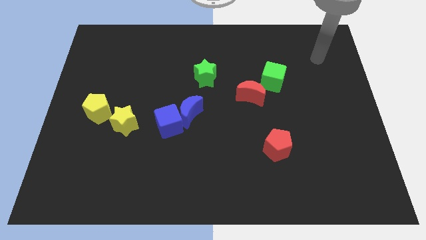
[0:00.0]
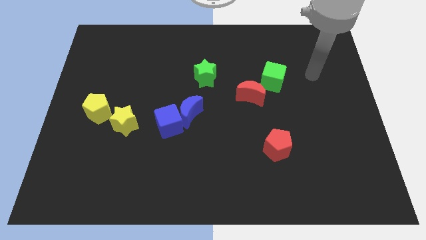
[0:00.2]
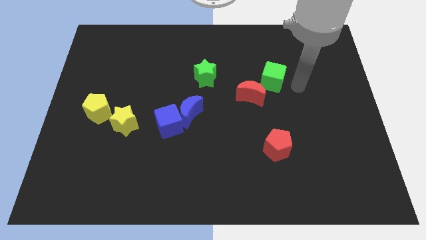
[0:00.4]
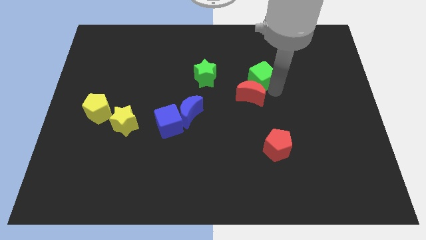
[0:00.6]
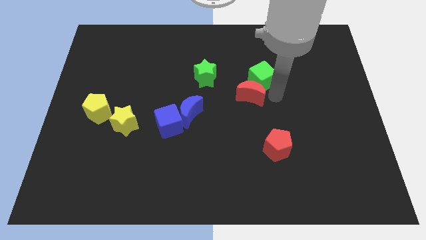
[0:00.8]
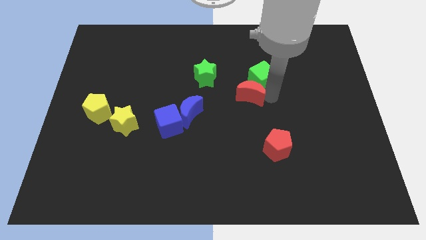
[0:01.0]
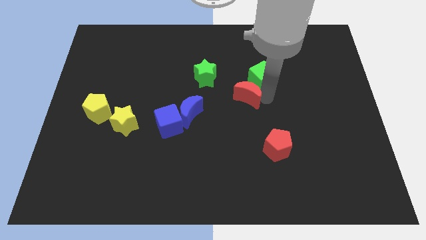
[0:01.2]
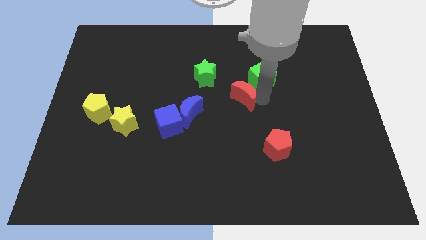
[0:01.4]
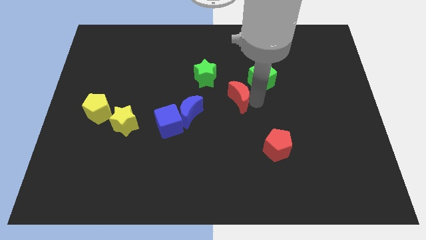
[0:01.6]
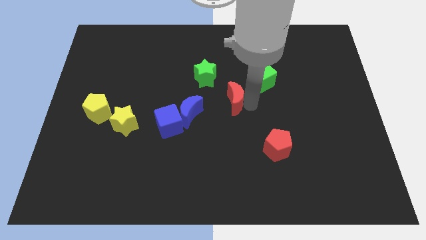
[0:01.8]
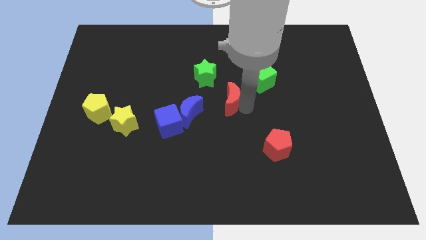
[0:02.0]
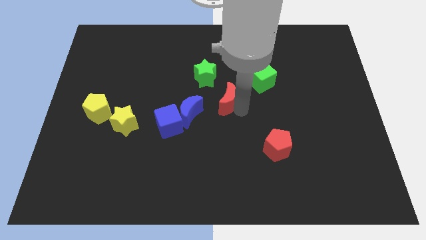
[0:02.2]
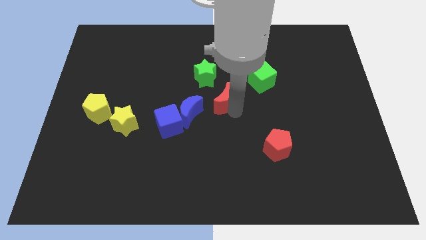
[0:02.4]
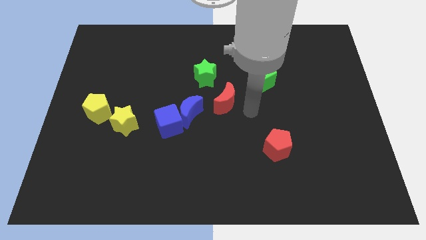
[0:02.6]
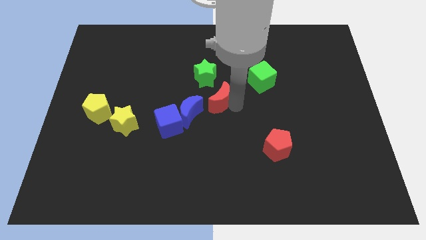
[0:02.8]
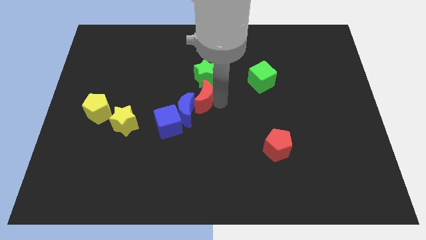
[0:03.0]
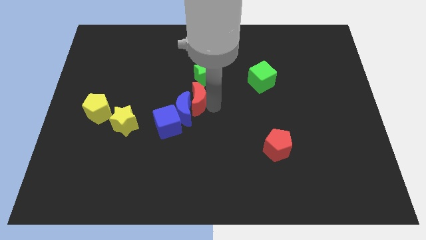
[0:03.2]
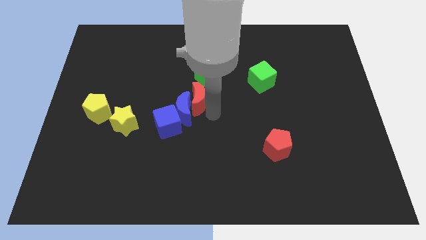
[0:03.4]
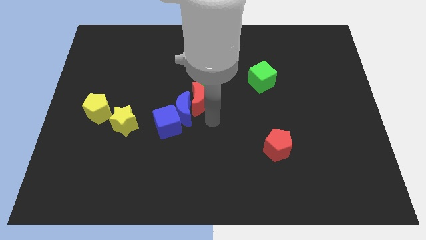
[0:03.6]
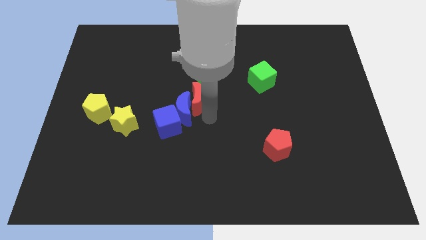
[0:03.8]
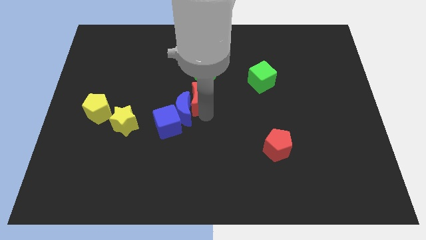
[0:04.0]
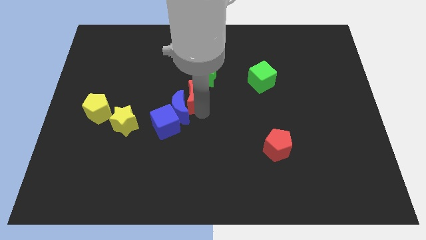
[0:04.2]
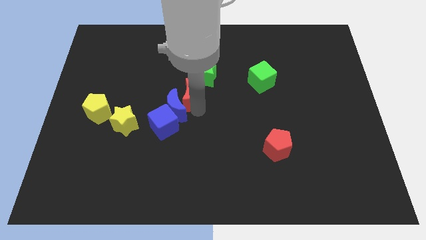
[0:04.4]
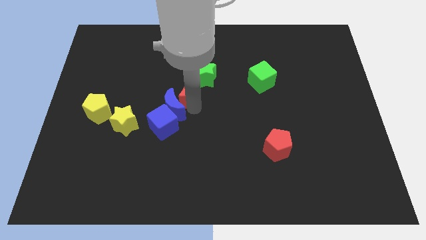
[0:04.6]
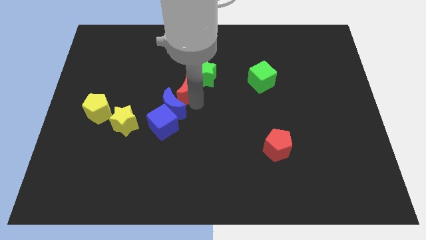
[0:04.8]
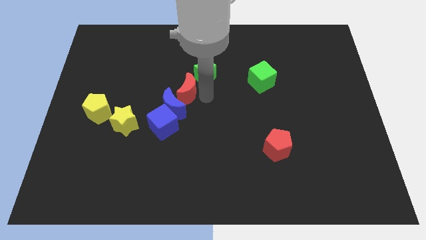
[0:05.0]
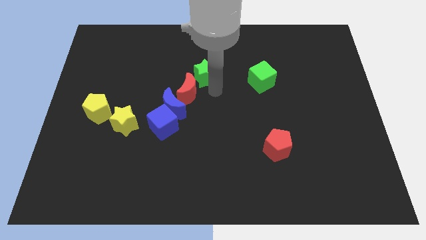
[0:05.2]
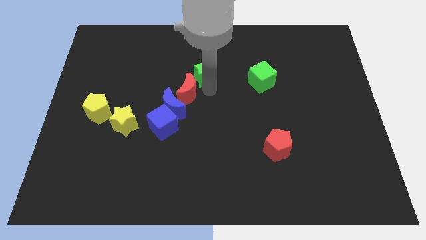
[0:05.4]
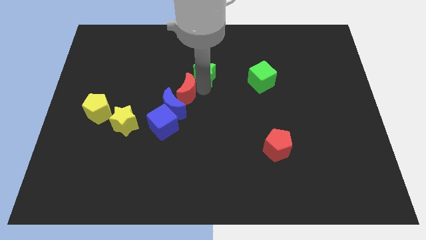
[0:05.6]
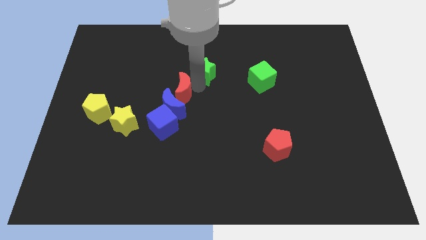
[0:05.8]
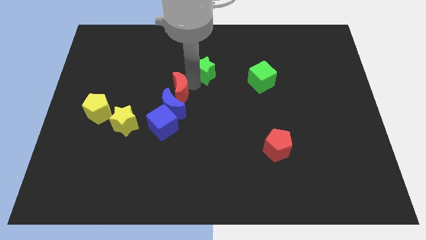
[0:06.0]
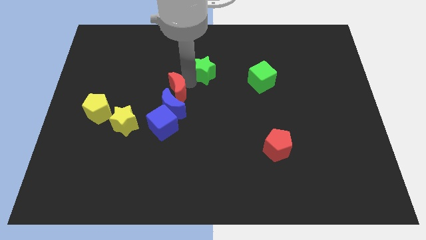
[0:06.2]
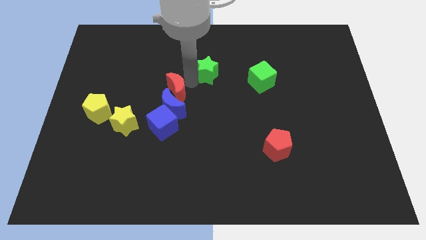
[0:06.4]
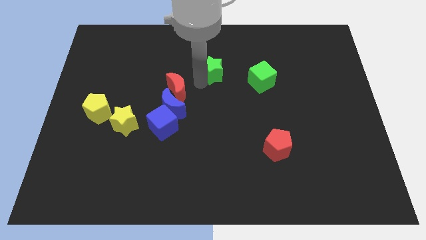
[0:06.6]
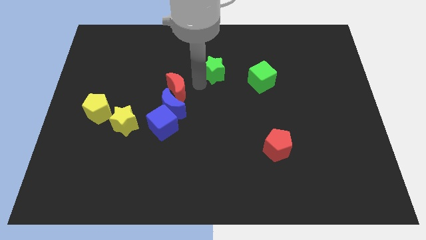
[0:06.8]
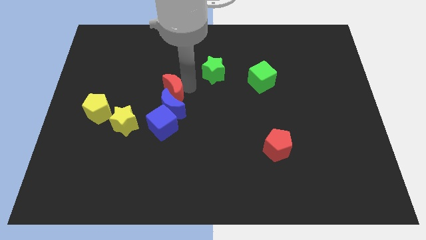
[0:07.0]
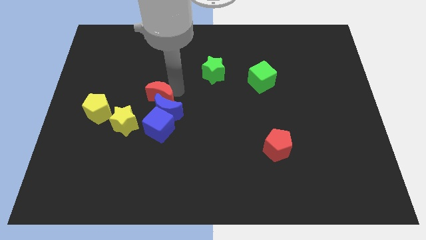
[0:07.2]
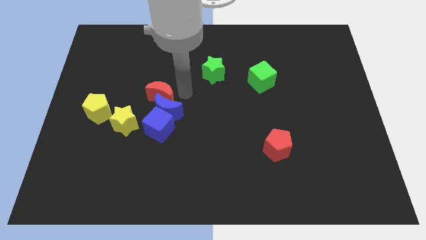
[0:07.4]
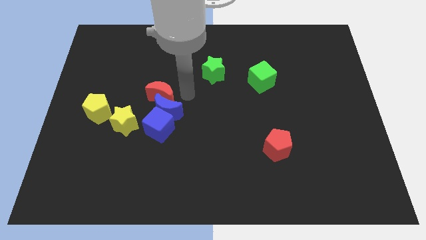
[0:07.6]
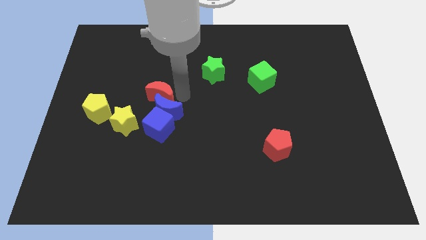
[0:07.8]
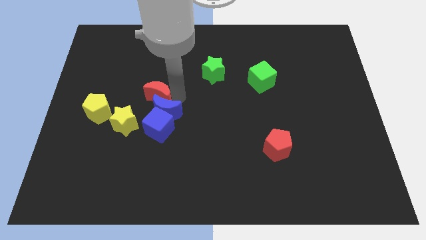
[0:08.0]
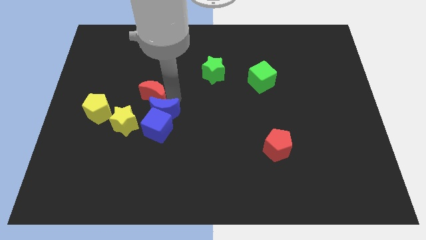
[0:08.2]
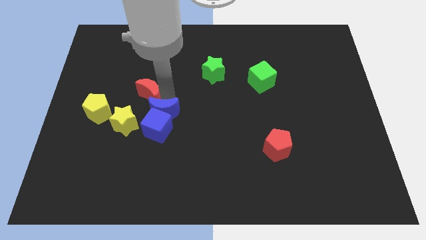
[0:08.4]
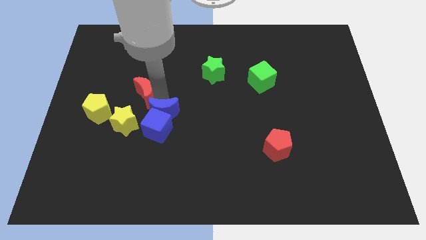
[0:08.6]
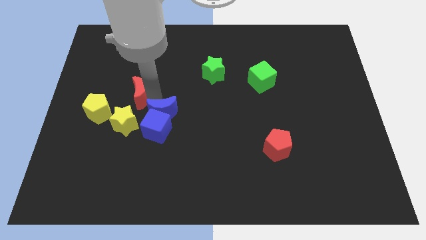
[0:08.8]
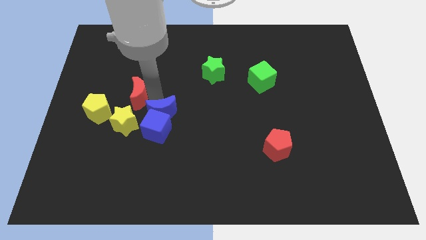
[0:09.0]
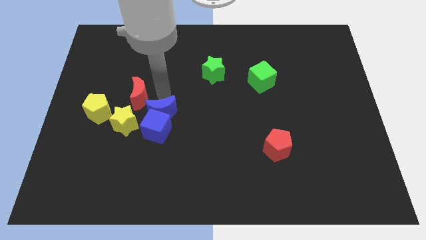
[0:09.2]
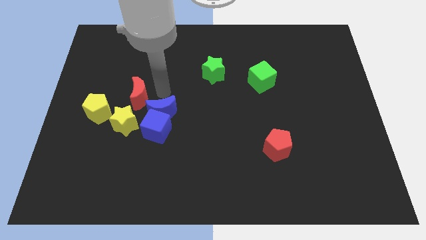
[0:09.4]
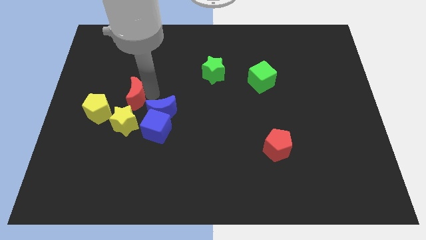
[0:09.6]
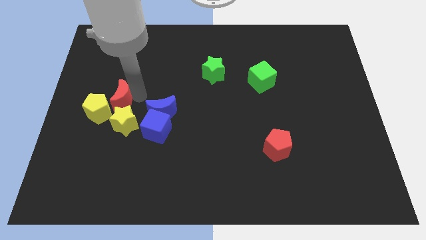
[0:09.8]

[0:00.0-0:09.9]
push the red moon to the top left side of the yellow star

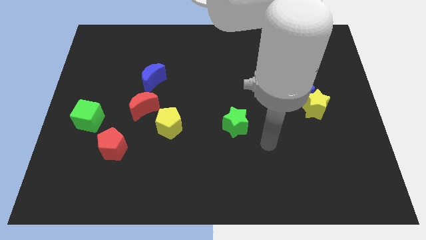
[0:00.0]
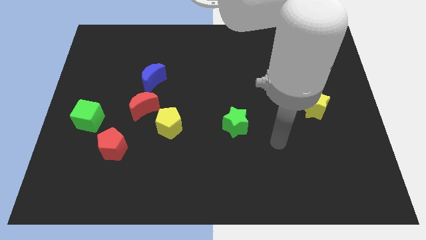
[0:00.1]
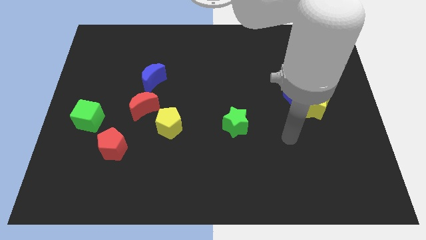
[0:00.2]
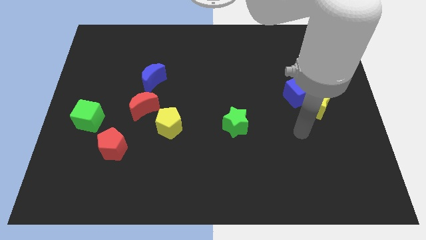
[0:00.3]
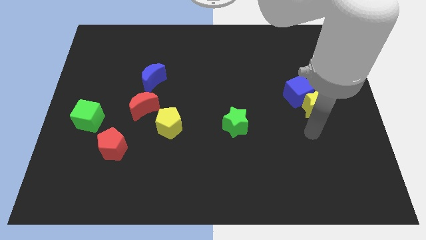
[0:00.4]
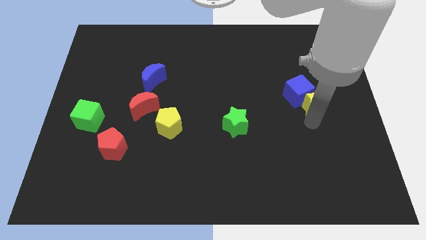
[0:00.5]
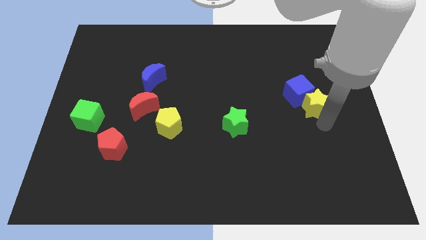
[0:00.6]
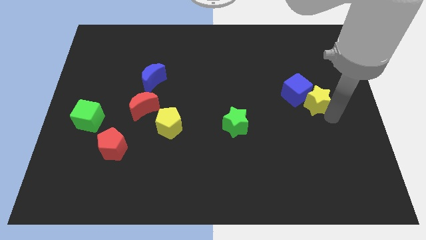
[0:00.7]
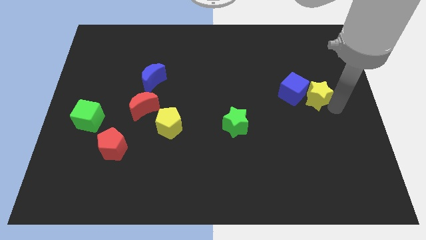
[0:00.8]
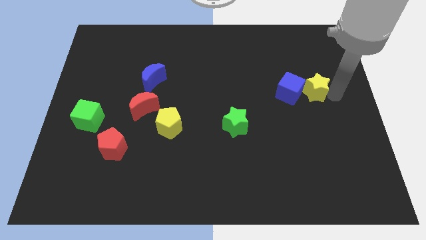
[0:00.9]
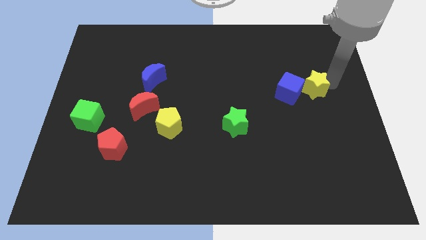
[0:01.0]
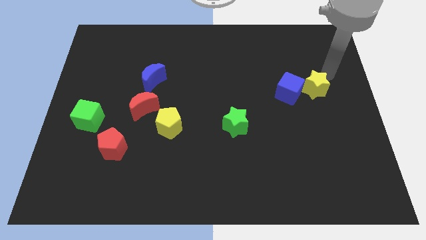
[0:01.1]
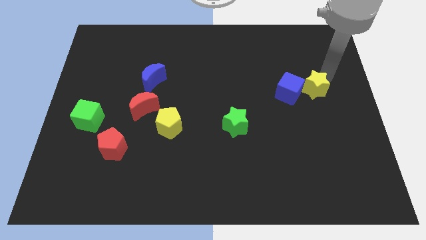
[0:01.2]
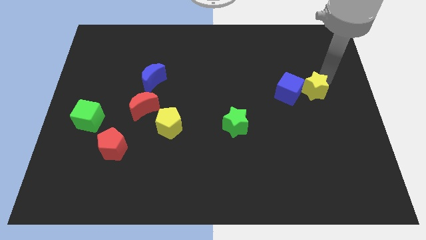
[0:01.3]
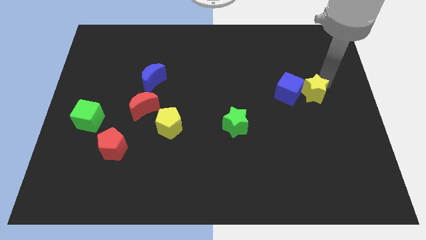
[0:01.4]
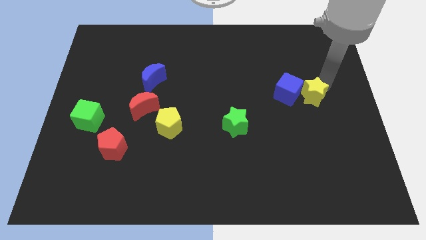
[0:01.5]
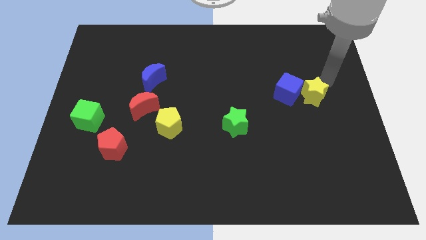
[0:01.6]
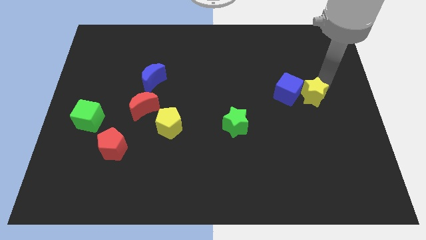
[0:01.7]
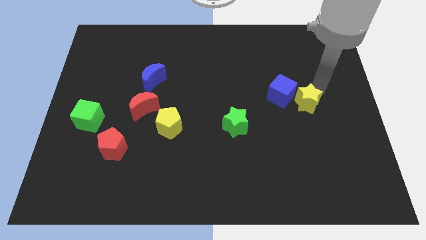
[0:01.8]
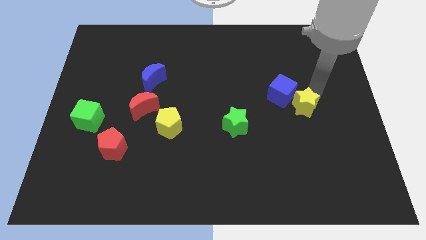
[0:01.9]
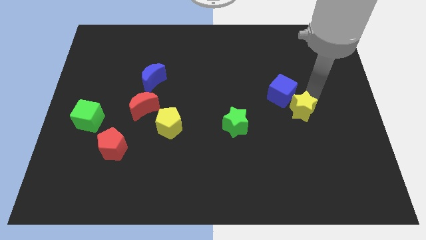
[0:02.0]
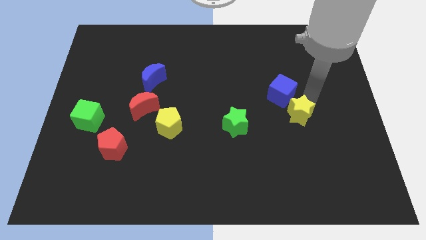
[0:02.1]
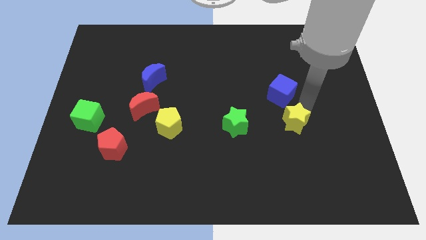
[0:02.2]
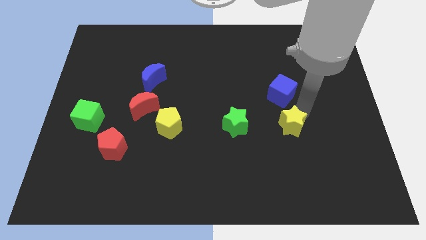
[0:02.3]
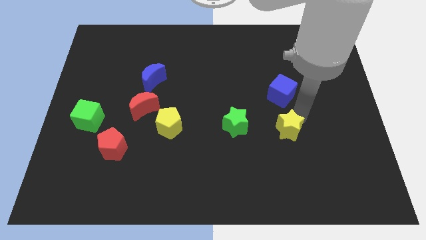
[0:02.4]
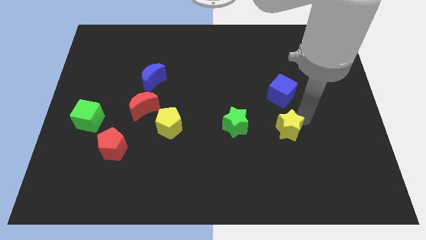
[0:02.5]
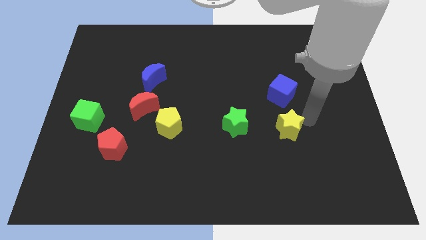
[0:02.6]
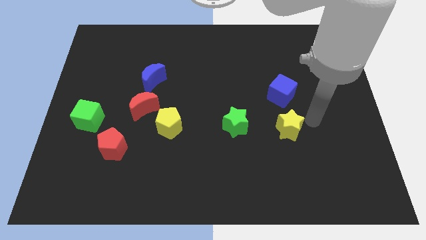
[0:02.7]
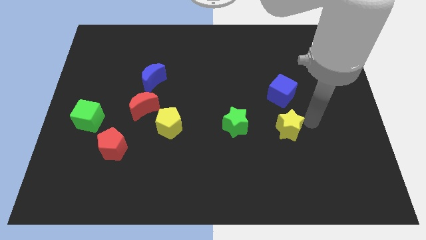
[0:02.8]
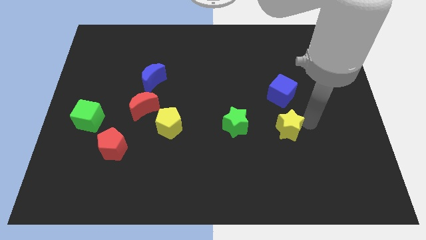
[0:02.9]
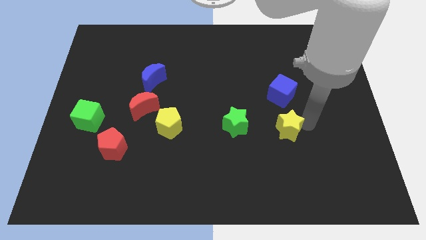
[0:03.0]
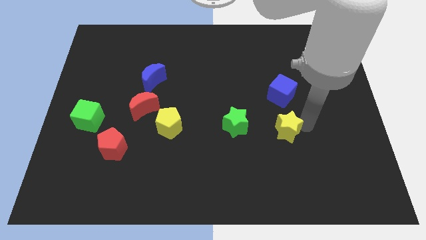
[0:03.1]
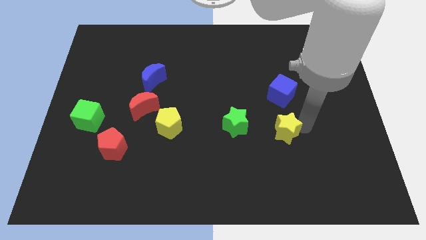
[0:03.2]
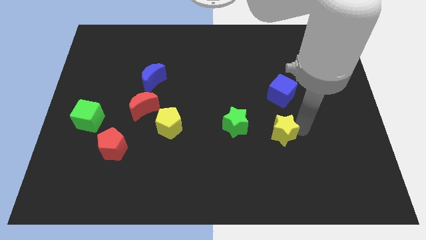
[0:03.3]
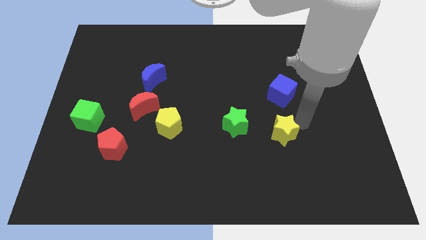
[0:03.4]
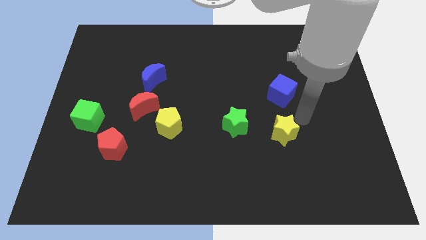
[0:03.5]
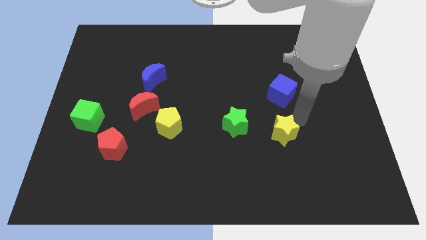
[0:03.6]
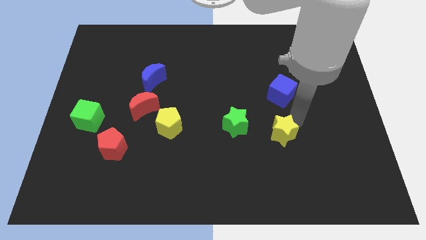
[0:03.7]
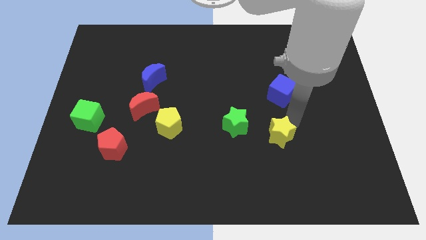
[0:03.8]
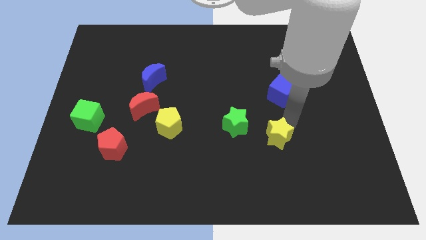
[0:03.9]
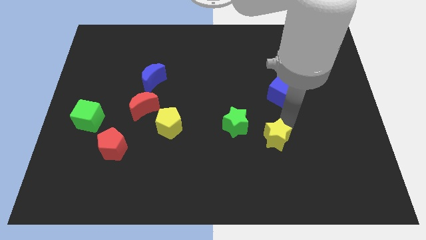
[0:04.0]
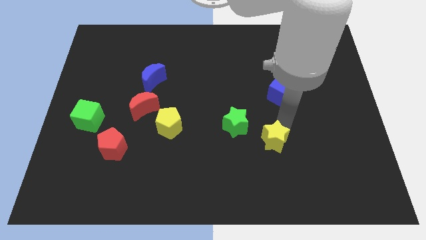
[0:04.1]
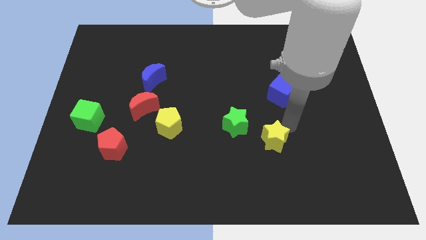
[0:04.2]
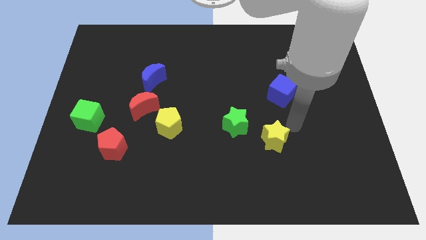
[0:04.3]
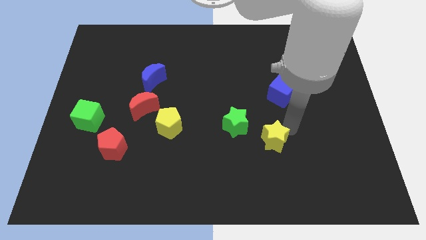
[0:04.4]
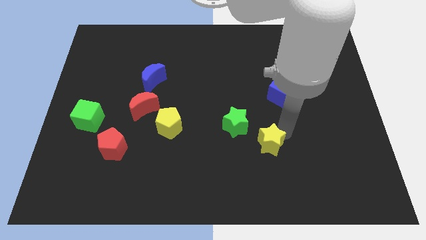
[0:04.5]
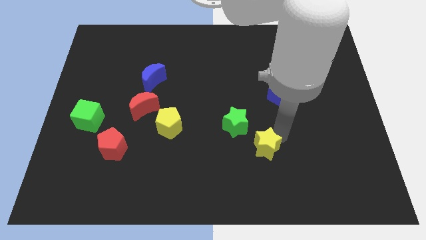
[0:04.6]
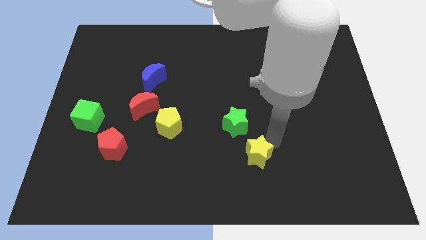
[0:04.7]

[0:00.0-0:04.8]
push the yellow star to the bottom side of the green star
